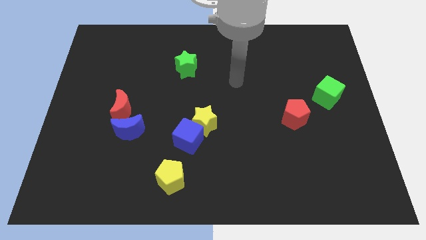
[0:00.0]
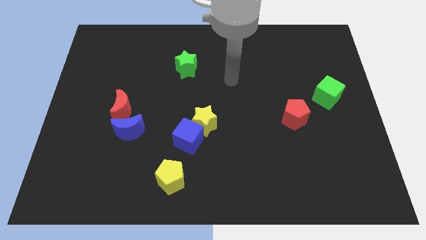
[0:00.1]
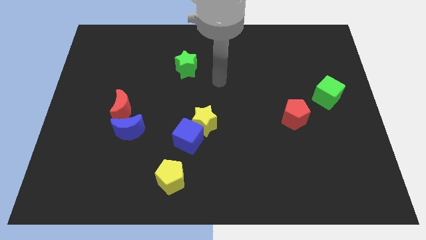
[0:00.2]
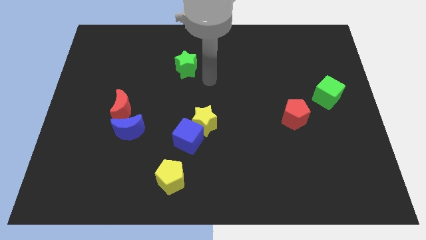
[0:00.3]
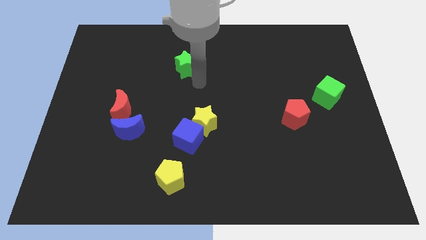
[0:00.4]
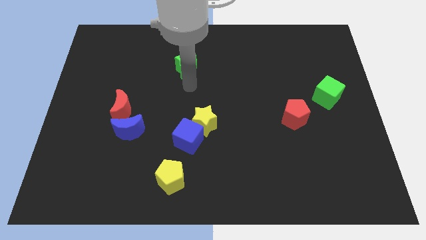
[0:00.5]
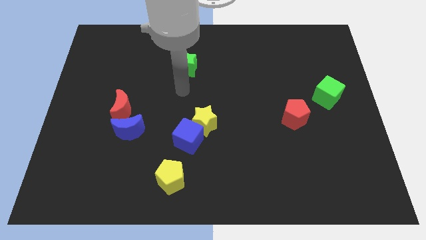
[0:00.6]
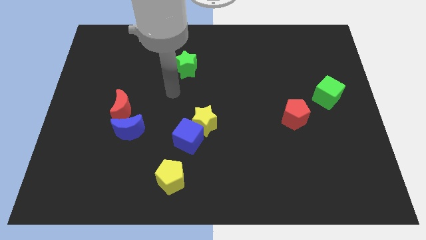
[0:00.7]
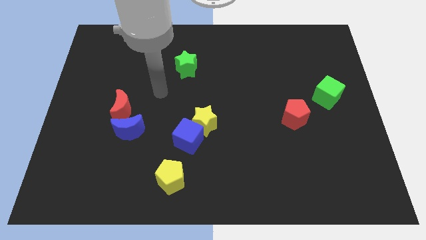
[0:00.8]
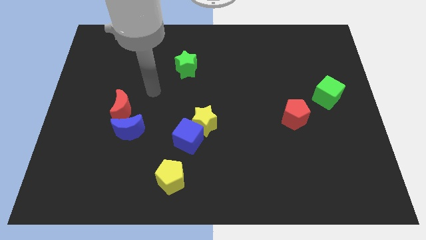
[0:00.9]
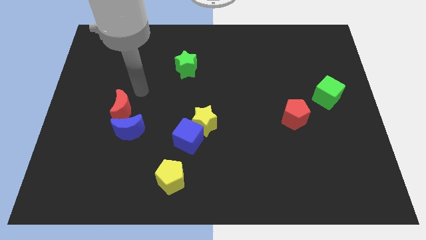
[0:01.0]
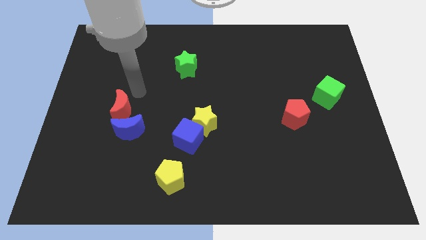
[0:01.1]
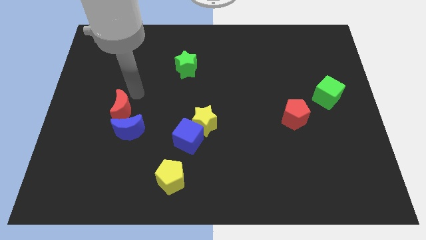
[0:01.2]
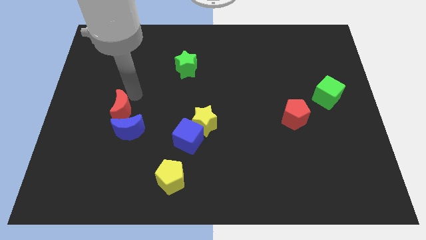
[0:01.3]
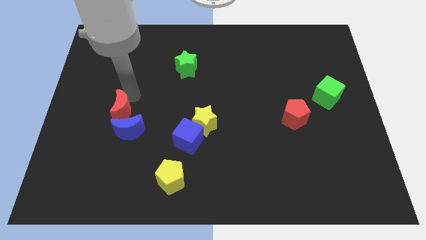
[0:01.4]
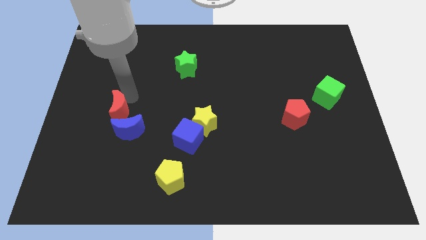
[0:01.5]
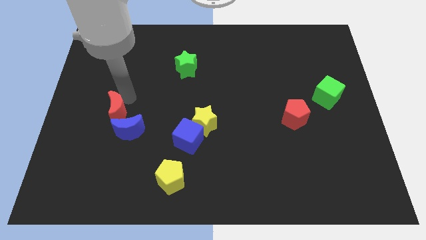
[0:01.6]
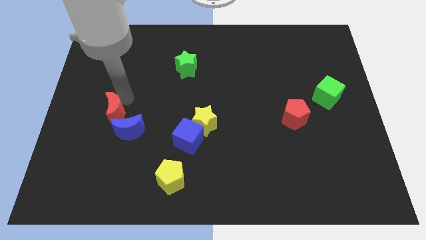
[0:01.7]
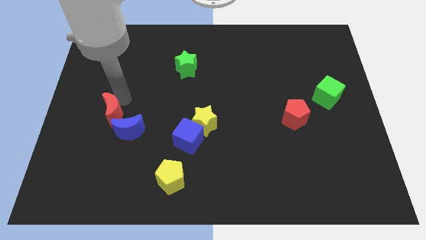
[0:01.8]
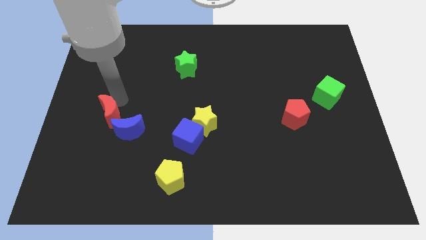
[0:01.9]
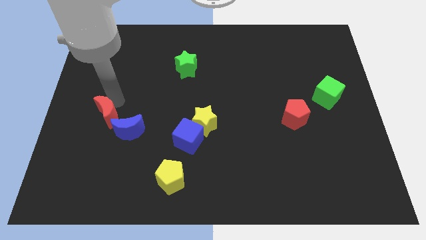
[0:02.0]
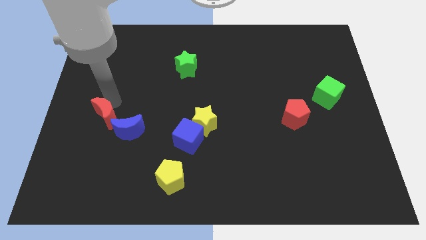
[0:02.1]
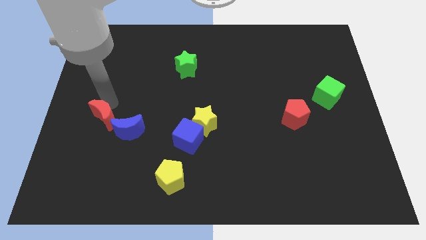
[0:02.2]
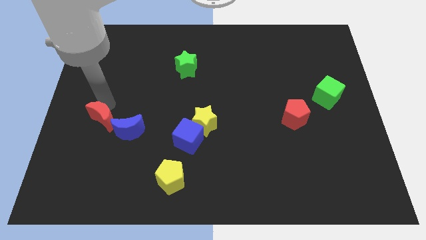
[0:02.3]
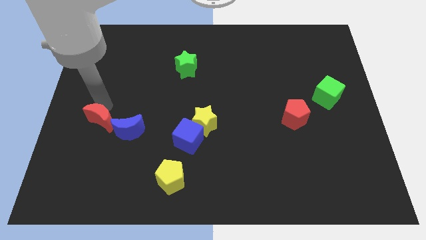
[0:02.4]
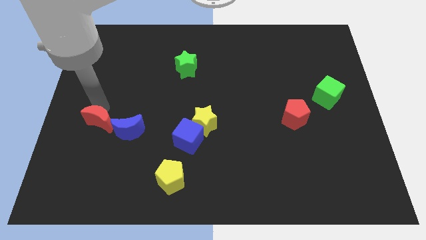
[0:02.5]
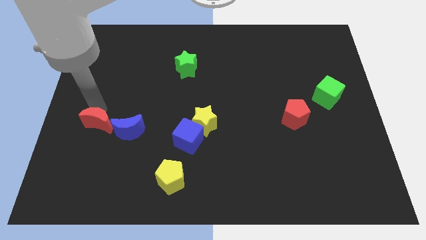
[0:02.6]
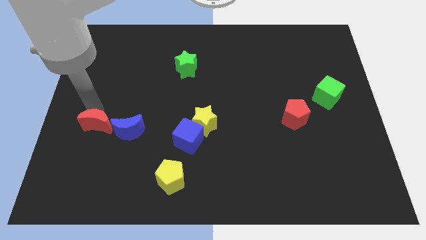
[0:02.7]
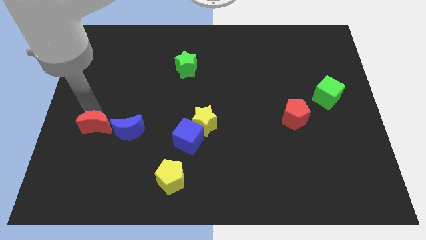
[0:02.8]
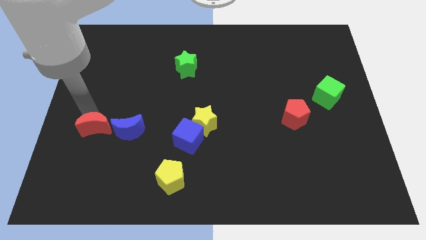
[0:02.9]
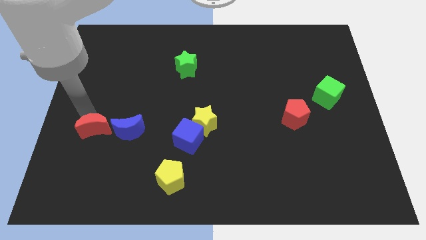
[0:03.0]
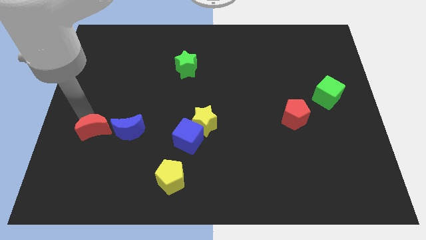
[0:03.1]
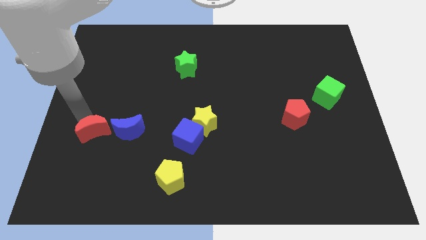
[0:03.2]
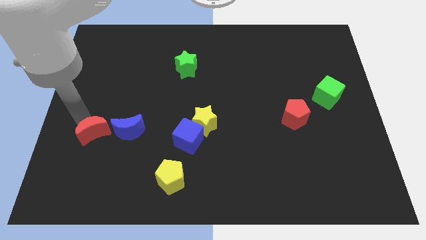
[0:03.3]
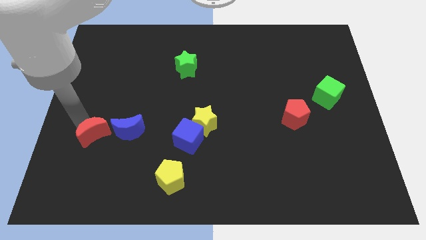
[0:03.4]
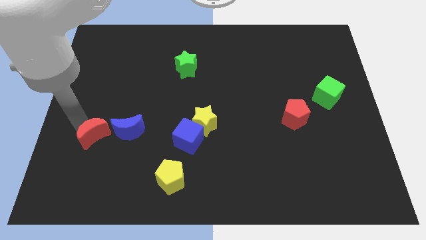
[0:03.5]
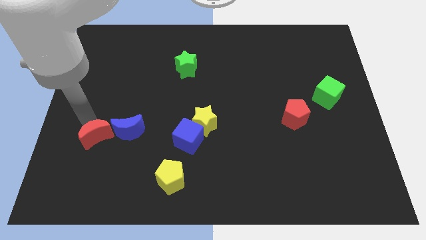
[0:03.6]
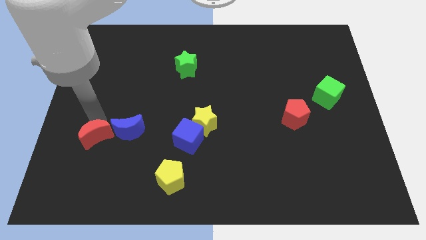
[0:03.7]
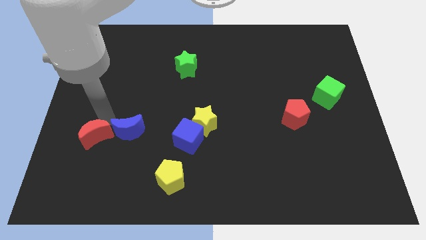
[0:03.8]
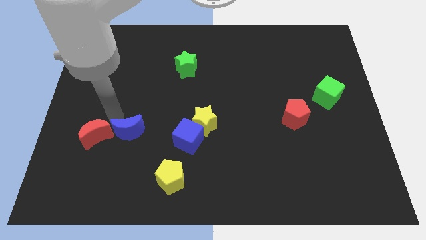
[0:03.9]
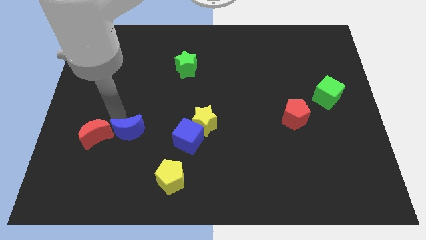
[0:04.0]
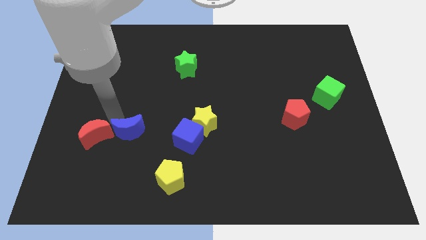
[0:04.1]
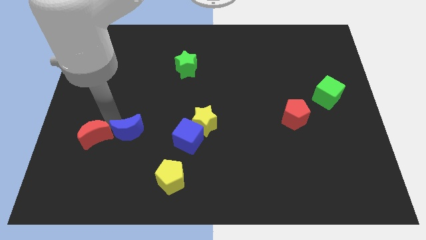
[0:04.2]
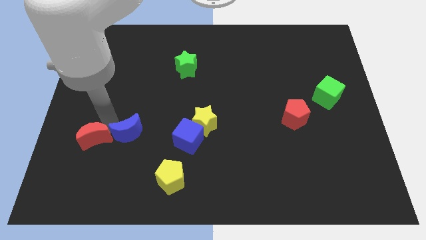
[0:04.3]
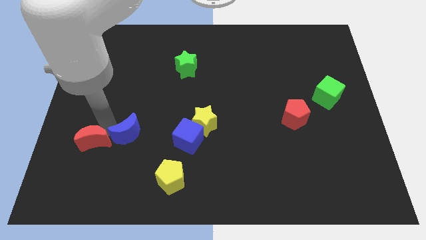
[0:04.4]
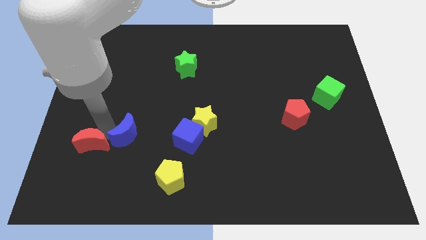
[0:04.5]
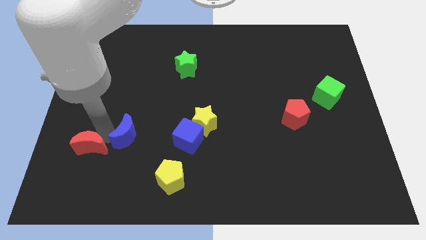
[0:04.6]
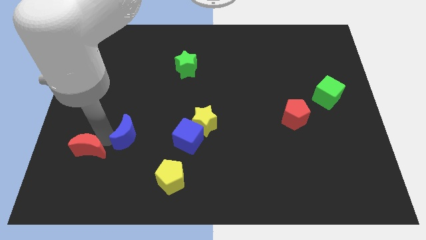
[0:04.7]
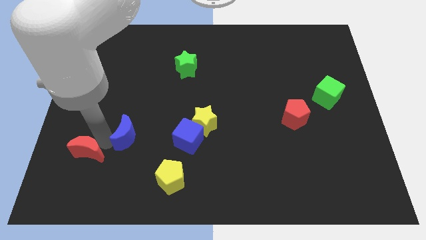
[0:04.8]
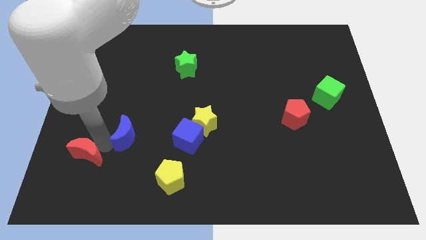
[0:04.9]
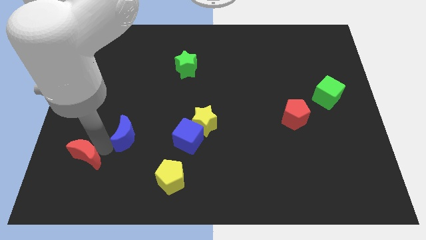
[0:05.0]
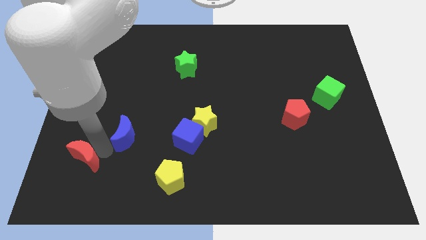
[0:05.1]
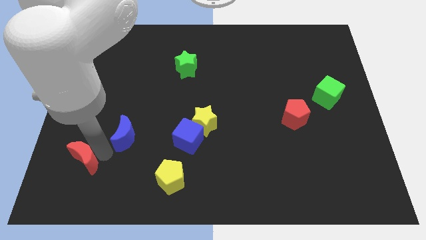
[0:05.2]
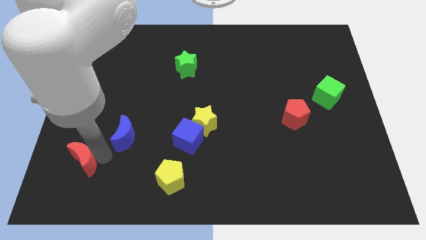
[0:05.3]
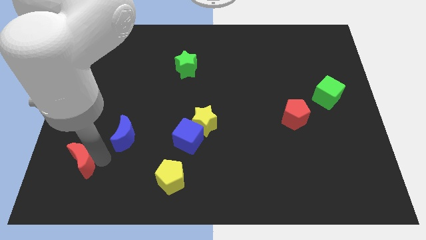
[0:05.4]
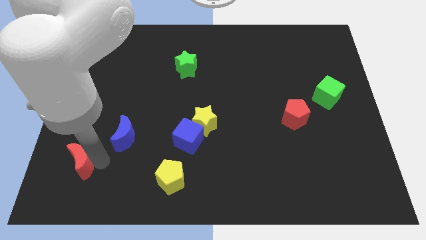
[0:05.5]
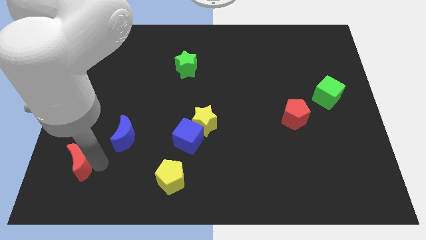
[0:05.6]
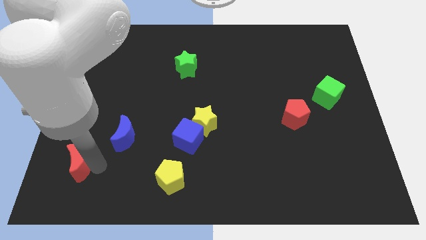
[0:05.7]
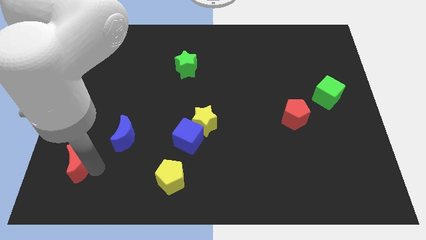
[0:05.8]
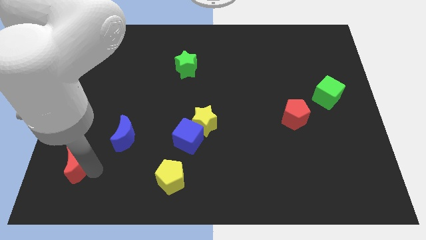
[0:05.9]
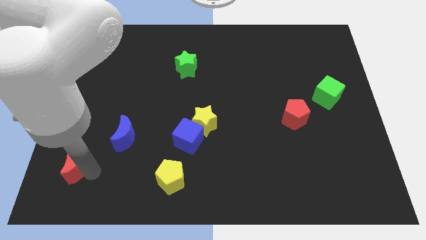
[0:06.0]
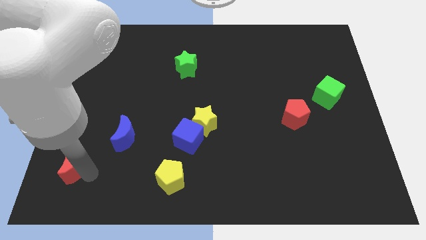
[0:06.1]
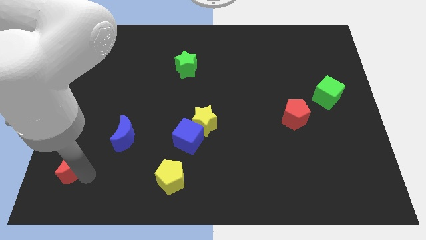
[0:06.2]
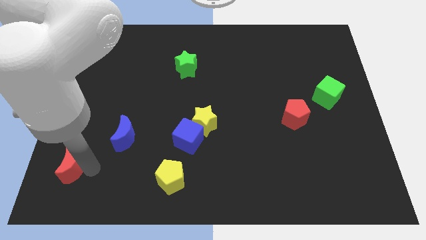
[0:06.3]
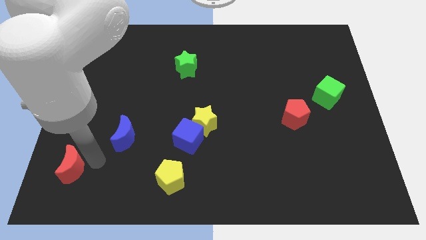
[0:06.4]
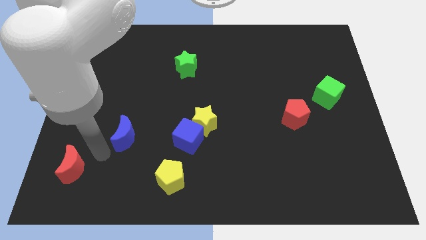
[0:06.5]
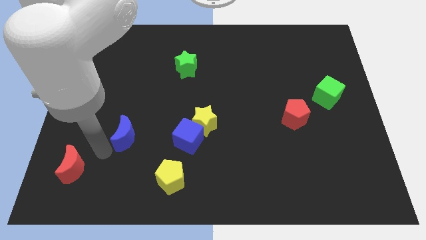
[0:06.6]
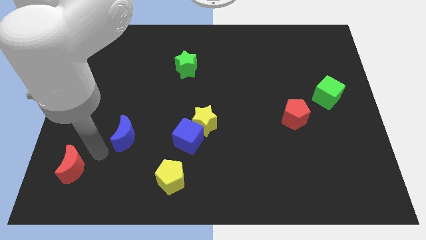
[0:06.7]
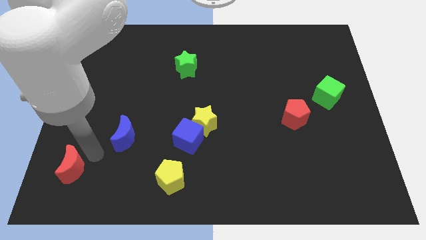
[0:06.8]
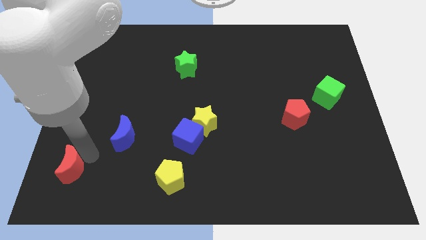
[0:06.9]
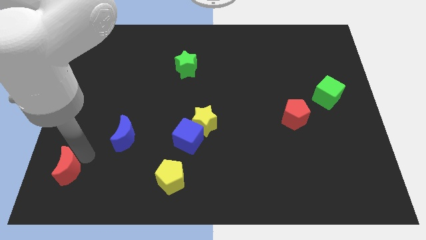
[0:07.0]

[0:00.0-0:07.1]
slide the red moon to the bottom left of the board
